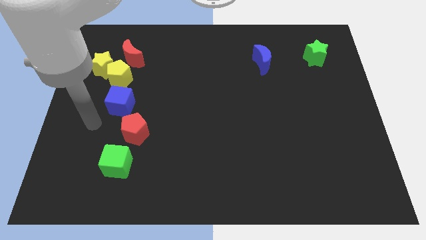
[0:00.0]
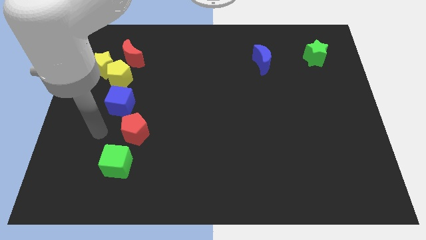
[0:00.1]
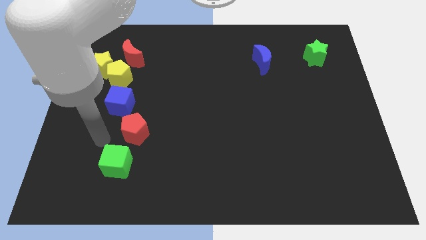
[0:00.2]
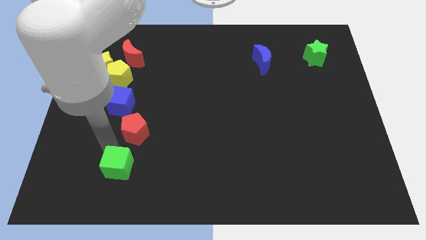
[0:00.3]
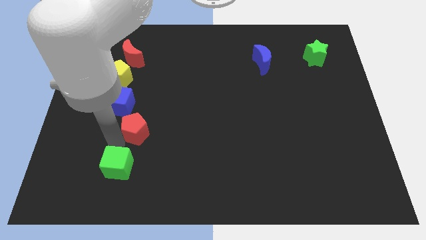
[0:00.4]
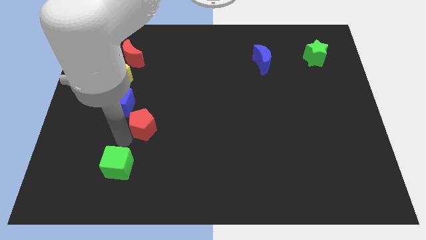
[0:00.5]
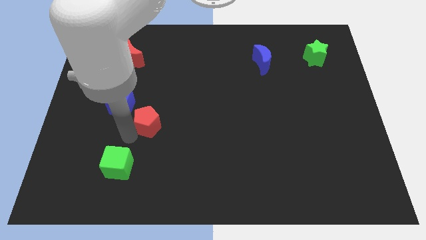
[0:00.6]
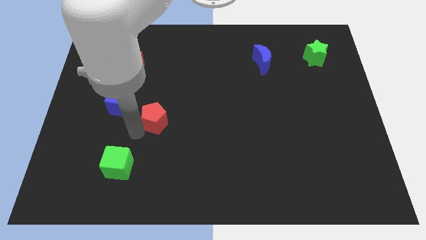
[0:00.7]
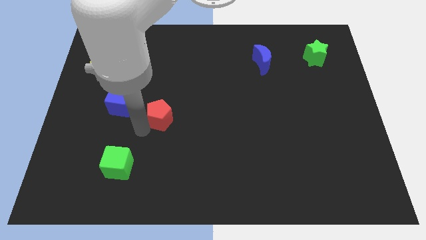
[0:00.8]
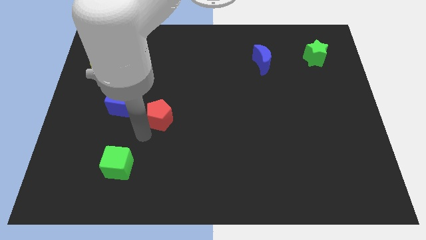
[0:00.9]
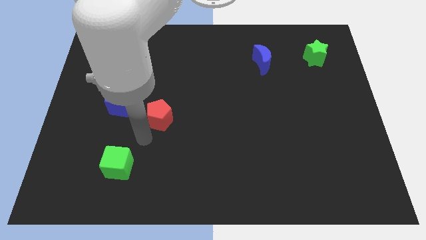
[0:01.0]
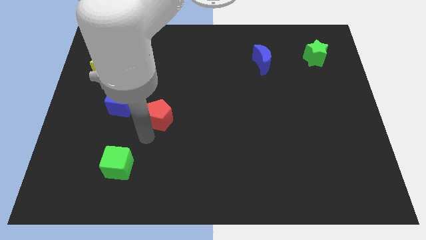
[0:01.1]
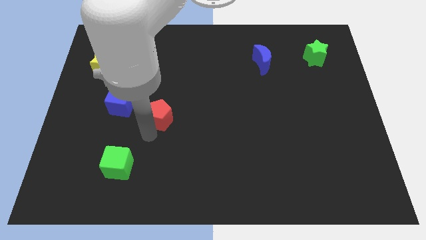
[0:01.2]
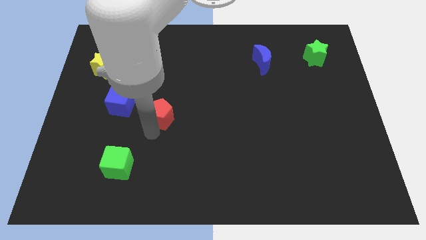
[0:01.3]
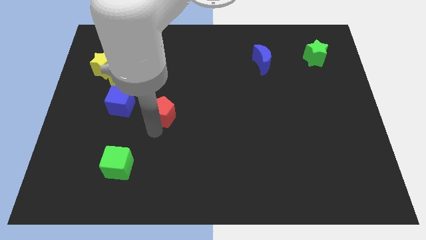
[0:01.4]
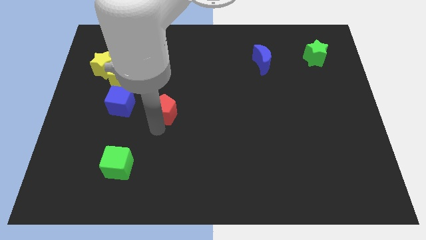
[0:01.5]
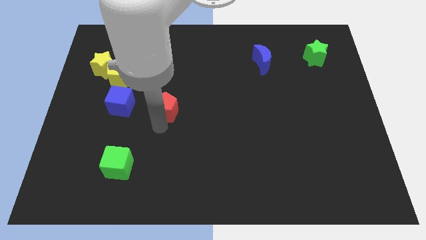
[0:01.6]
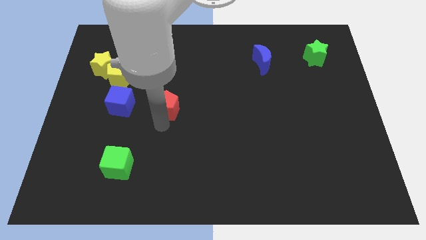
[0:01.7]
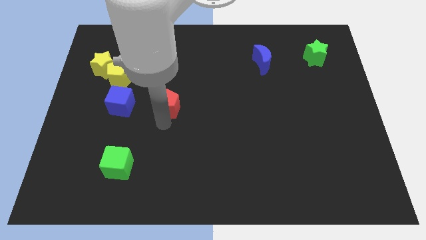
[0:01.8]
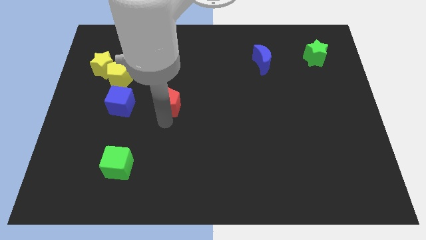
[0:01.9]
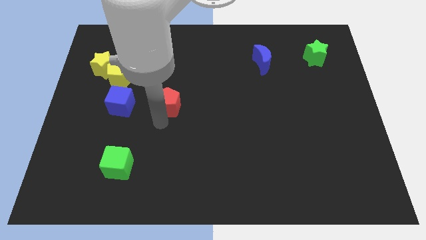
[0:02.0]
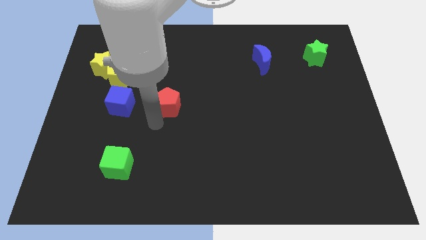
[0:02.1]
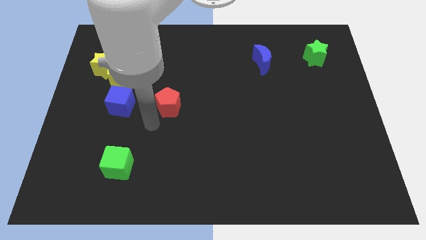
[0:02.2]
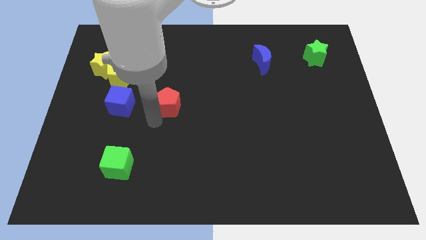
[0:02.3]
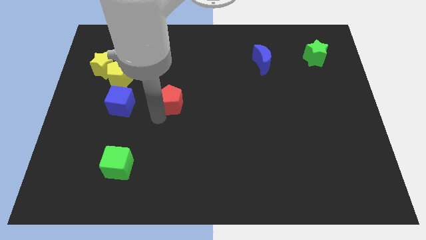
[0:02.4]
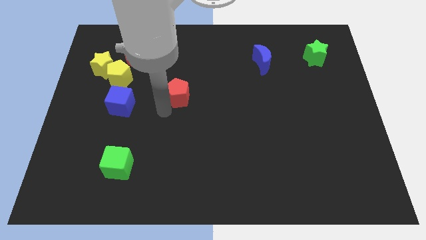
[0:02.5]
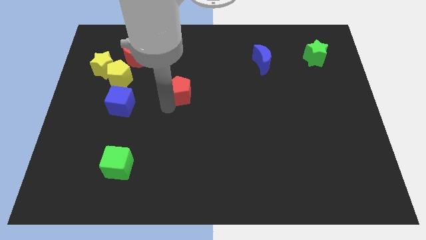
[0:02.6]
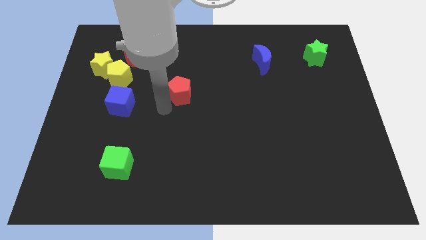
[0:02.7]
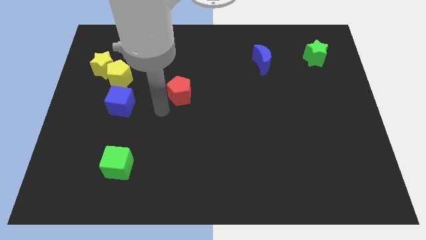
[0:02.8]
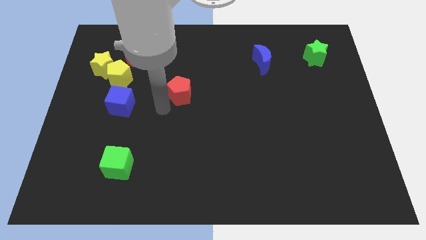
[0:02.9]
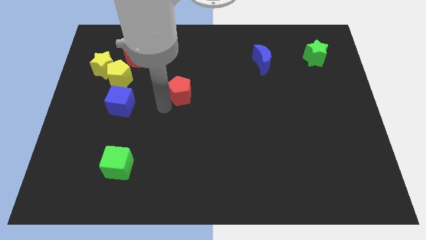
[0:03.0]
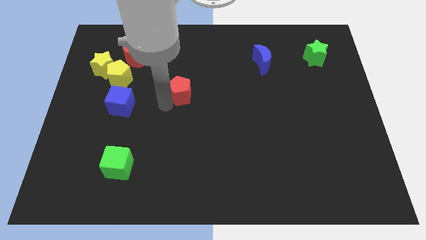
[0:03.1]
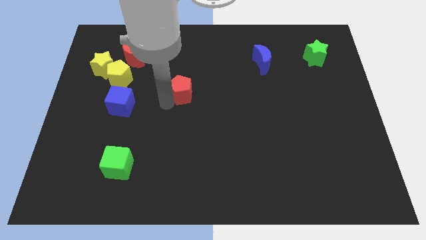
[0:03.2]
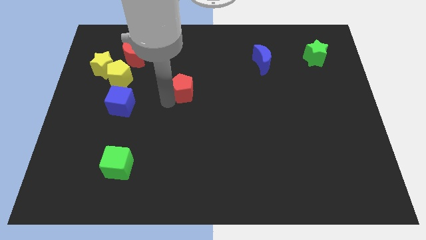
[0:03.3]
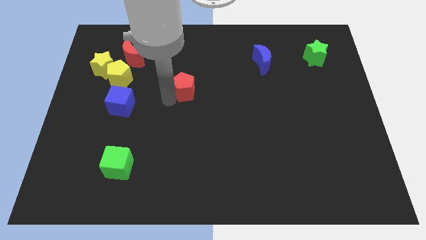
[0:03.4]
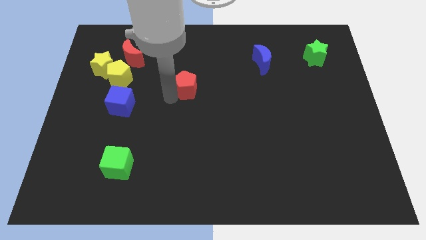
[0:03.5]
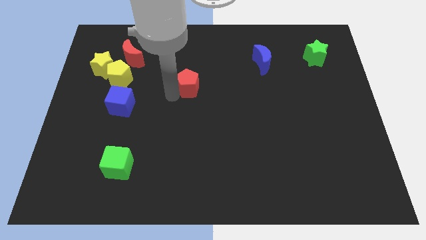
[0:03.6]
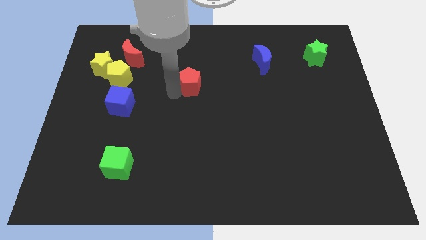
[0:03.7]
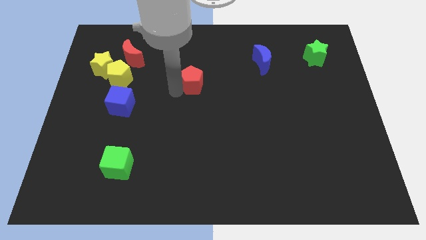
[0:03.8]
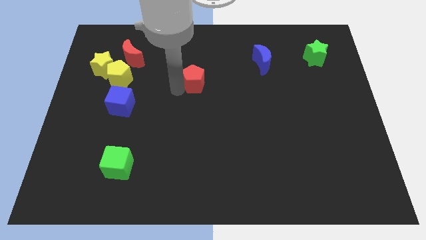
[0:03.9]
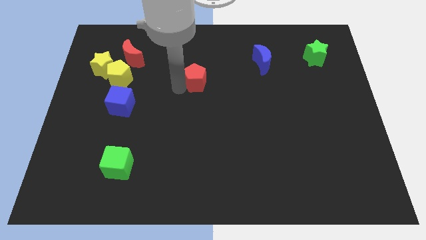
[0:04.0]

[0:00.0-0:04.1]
move the red pentagon up and to the right

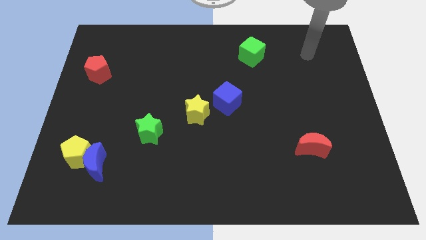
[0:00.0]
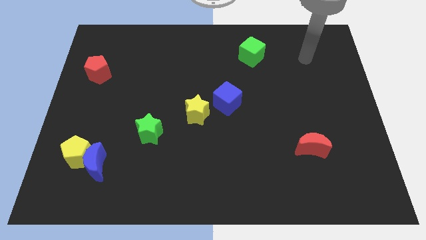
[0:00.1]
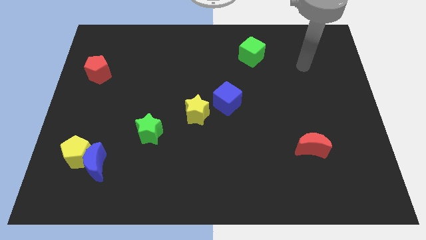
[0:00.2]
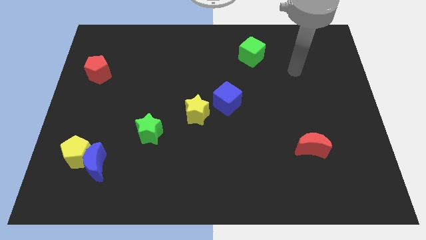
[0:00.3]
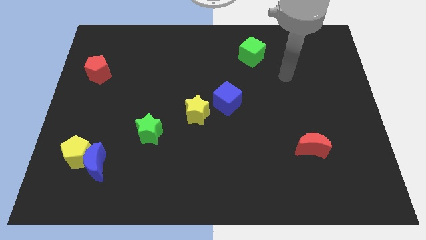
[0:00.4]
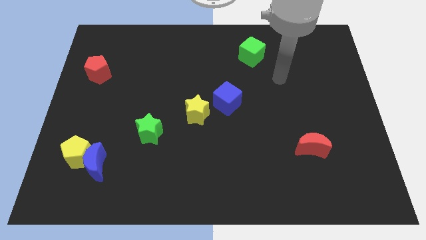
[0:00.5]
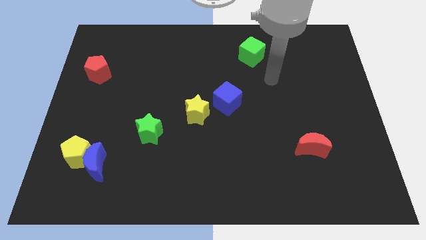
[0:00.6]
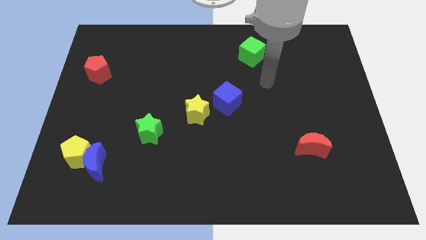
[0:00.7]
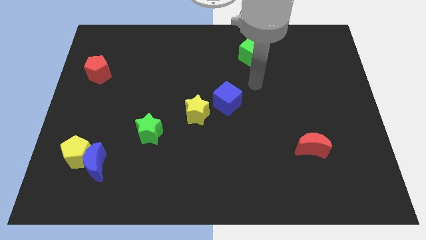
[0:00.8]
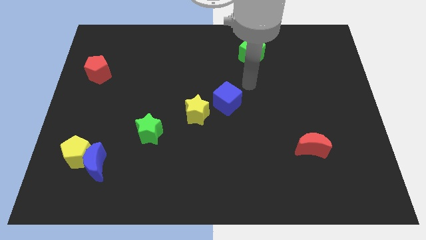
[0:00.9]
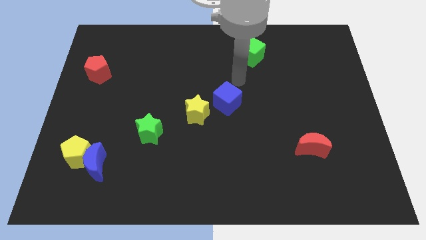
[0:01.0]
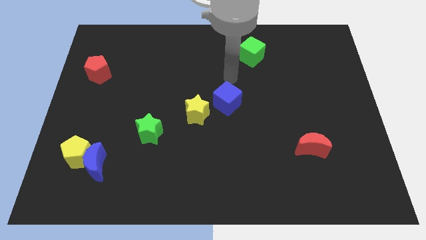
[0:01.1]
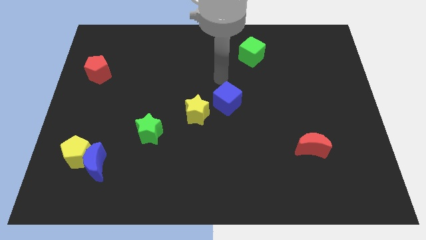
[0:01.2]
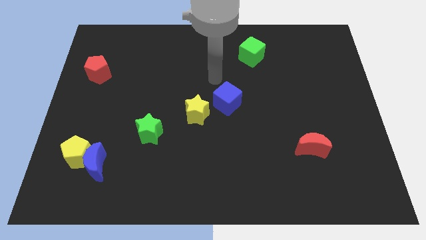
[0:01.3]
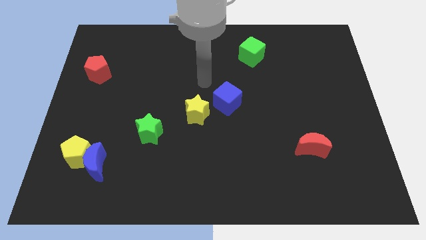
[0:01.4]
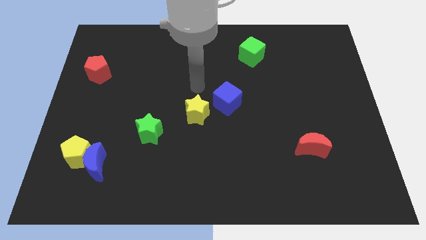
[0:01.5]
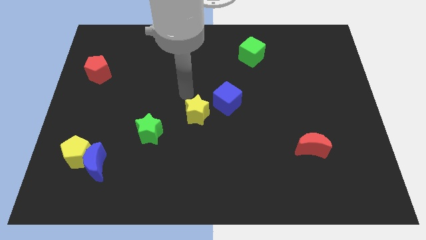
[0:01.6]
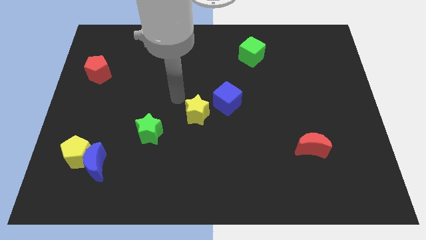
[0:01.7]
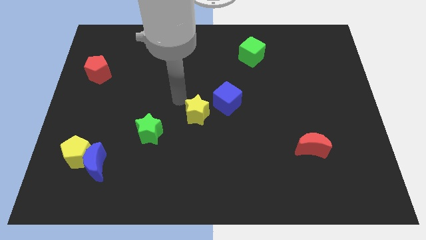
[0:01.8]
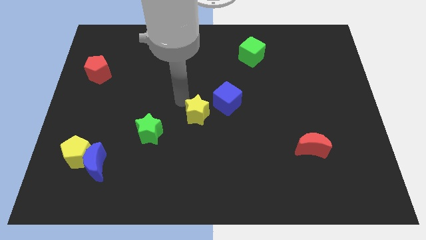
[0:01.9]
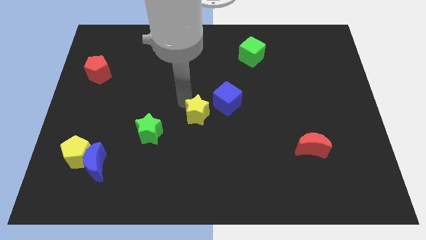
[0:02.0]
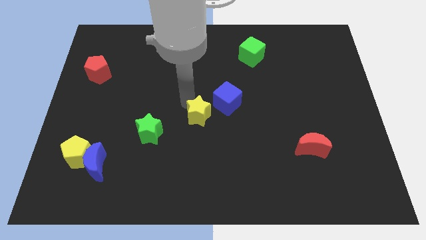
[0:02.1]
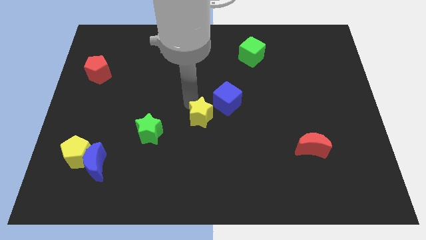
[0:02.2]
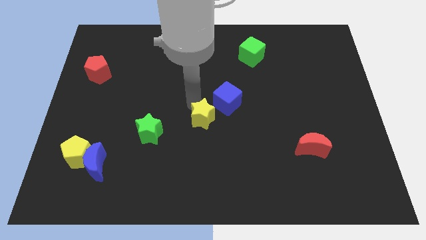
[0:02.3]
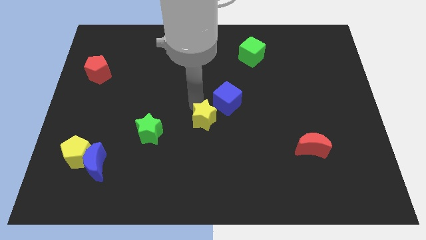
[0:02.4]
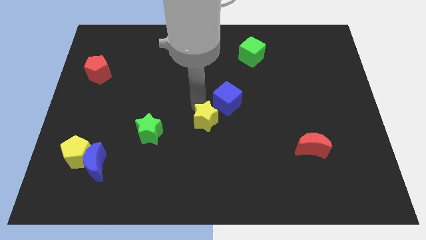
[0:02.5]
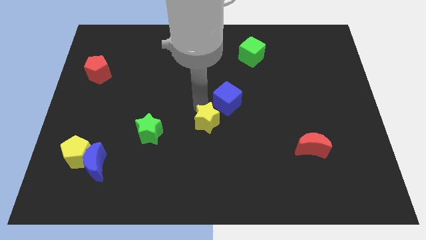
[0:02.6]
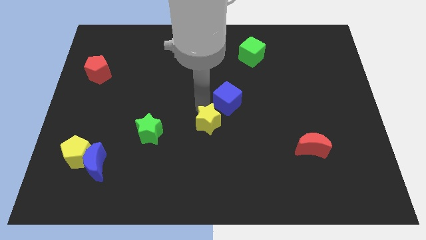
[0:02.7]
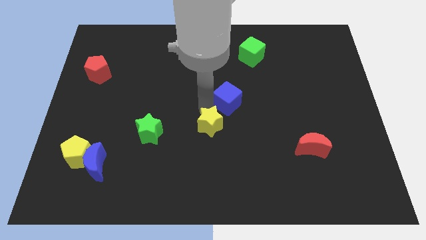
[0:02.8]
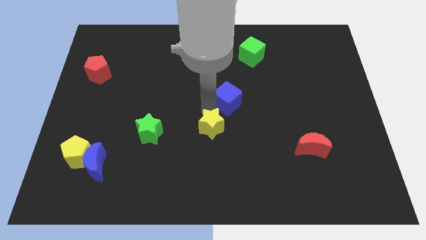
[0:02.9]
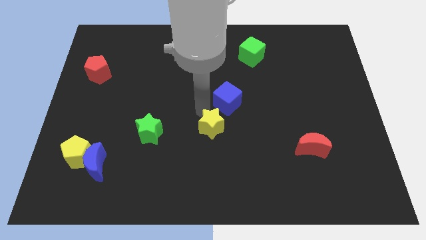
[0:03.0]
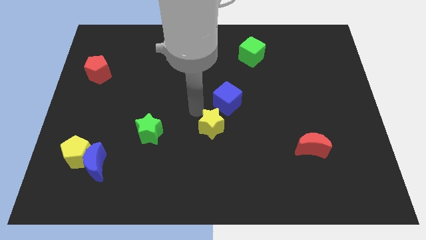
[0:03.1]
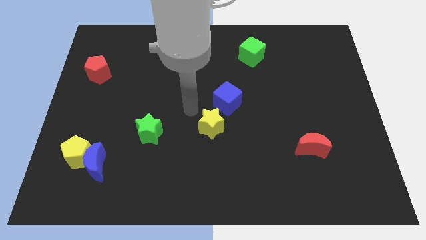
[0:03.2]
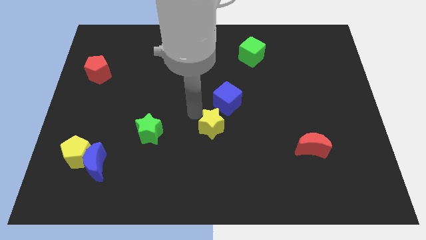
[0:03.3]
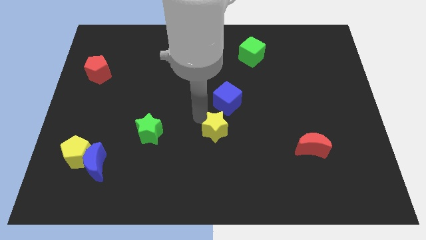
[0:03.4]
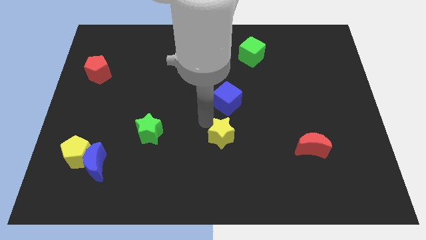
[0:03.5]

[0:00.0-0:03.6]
move the yellow star down and to the right slightly

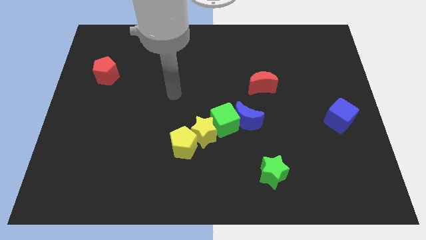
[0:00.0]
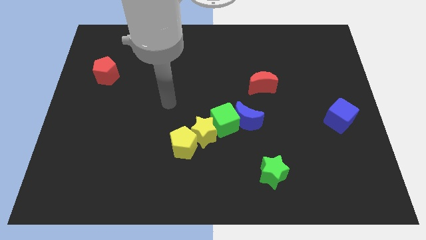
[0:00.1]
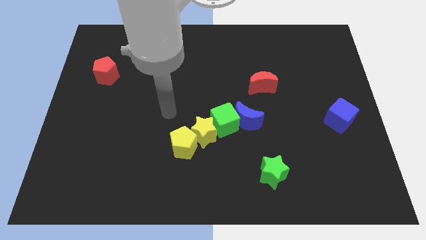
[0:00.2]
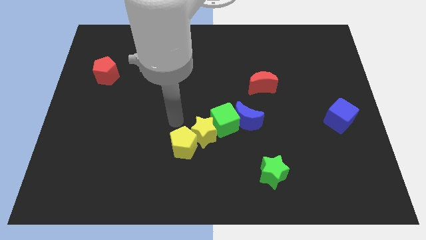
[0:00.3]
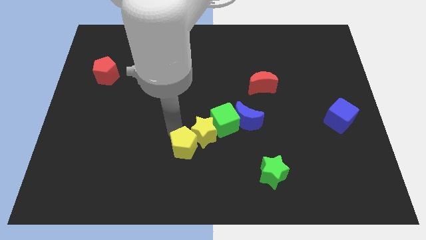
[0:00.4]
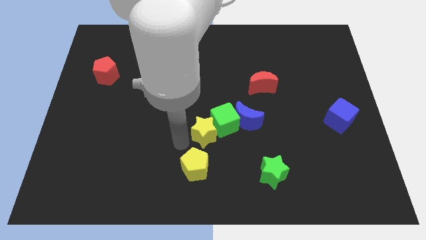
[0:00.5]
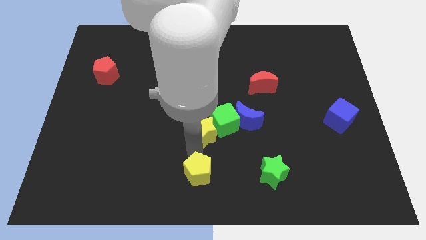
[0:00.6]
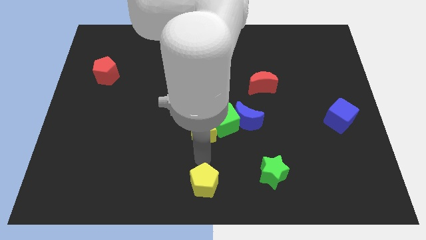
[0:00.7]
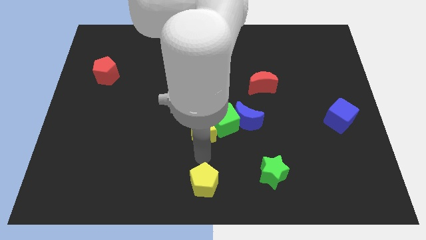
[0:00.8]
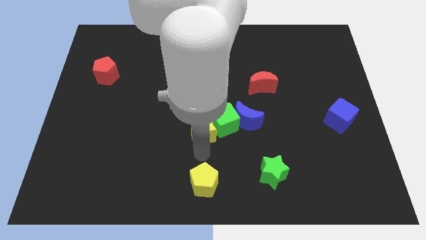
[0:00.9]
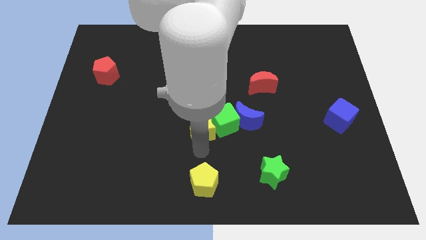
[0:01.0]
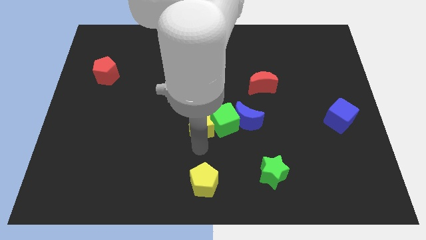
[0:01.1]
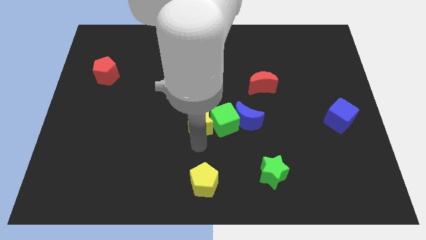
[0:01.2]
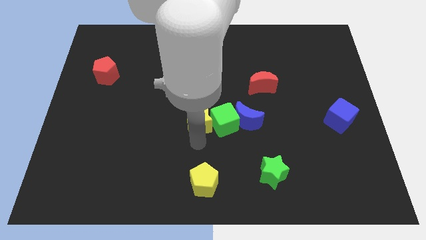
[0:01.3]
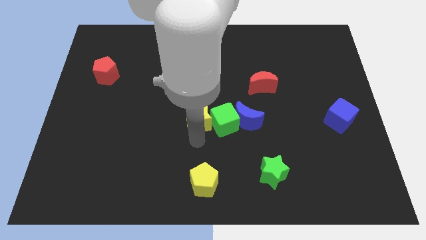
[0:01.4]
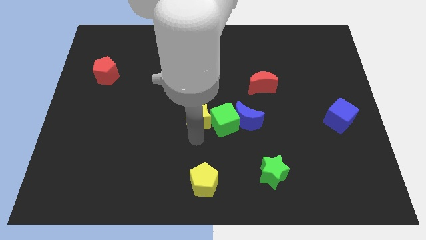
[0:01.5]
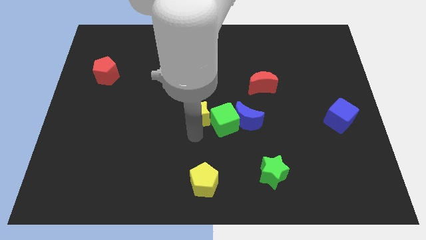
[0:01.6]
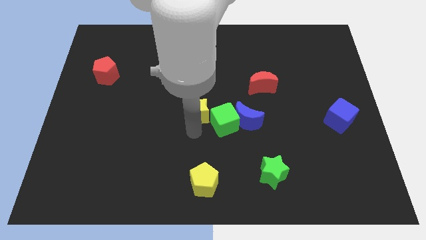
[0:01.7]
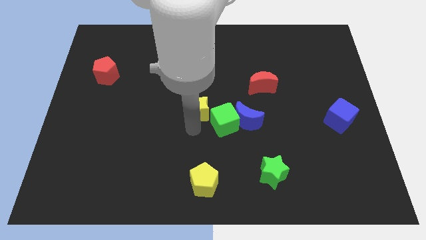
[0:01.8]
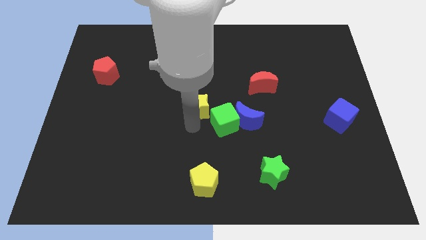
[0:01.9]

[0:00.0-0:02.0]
move the yellow star a little upwards
